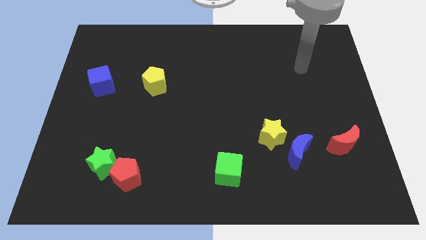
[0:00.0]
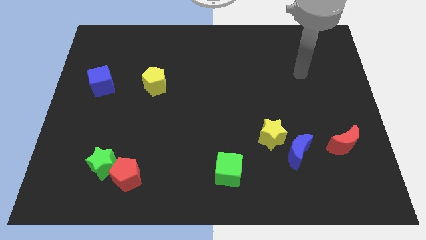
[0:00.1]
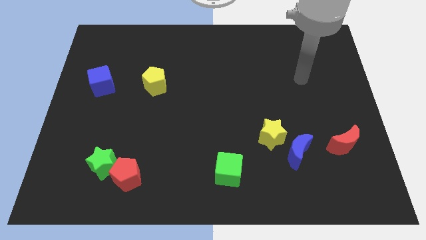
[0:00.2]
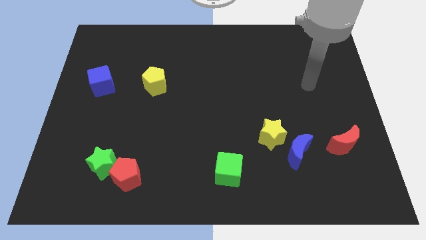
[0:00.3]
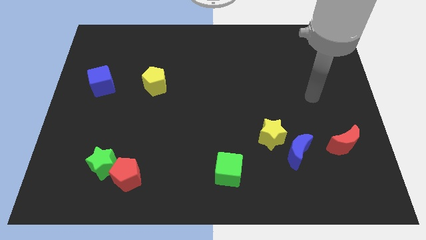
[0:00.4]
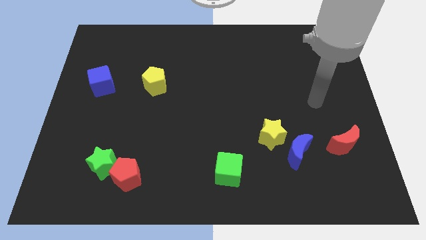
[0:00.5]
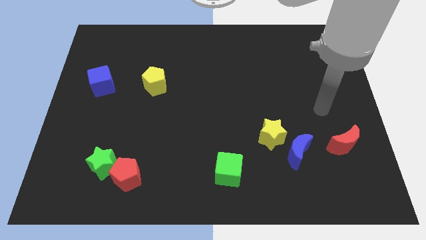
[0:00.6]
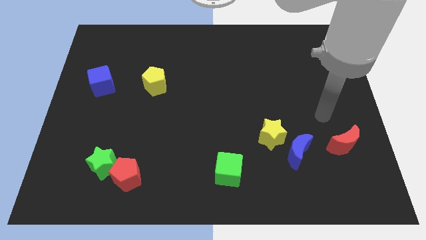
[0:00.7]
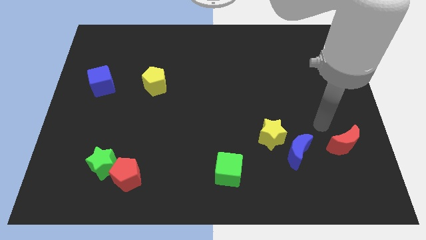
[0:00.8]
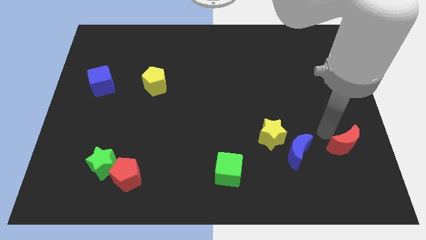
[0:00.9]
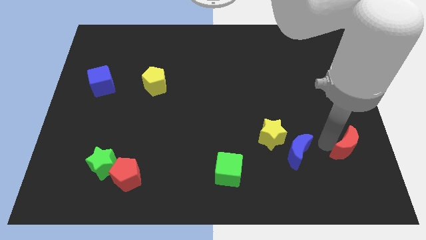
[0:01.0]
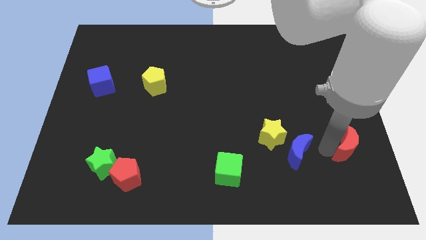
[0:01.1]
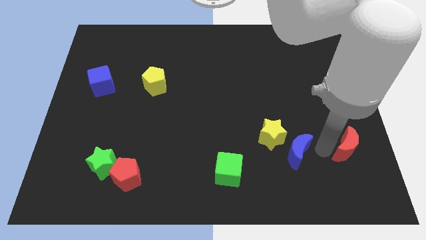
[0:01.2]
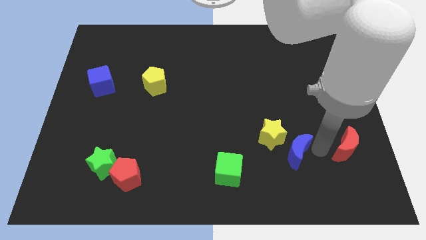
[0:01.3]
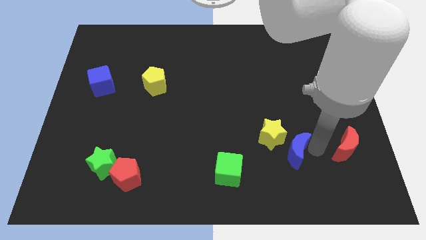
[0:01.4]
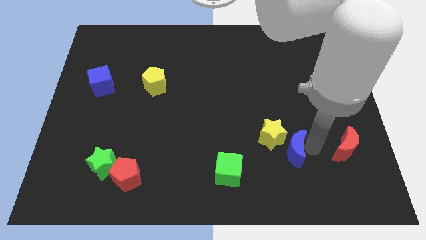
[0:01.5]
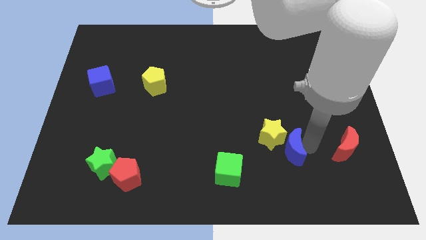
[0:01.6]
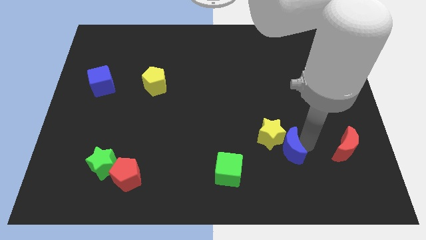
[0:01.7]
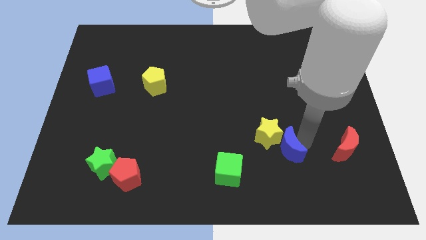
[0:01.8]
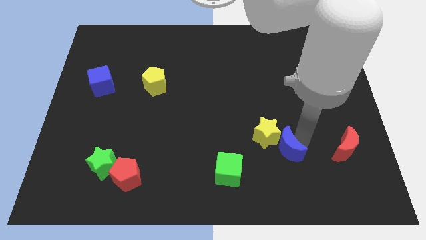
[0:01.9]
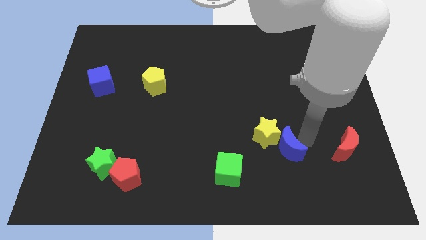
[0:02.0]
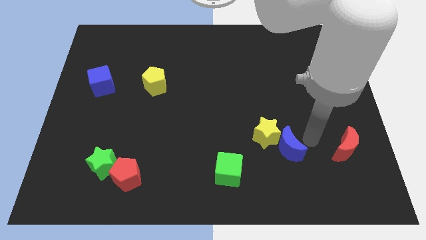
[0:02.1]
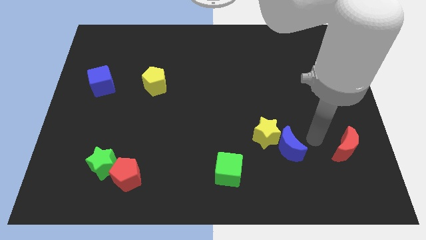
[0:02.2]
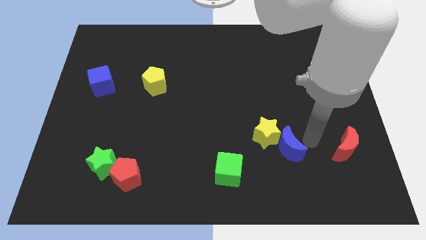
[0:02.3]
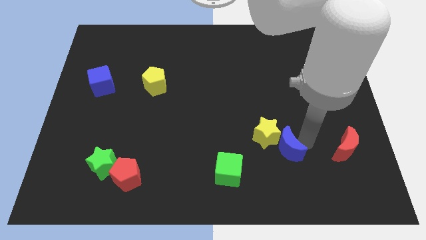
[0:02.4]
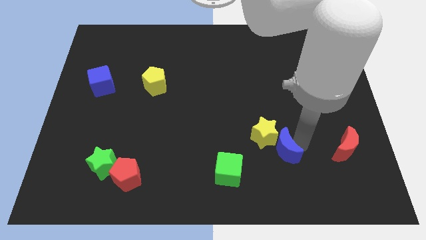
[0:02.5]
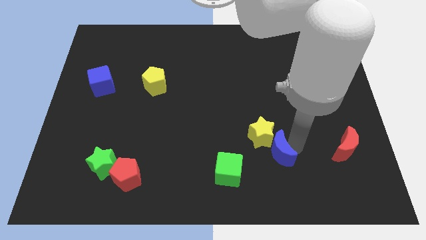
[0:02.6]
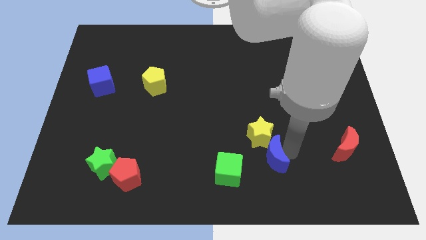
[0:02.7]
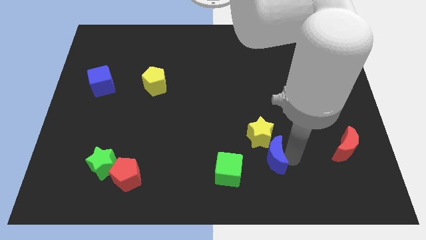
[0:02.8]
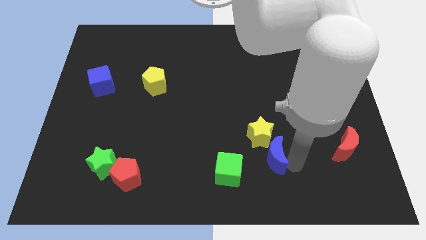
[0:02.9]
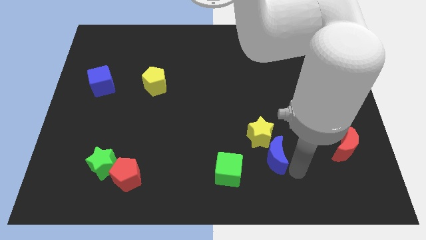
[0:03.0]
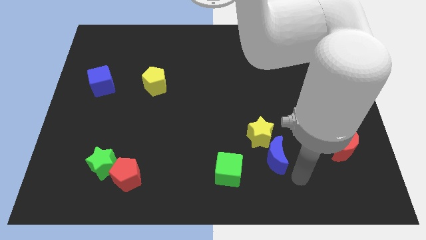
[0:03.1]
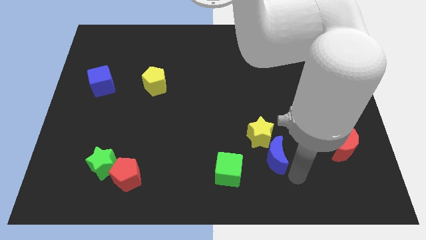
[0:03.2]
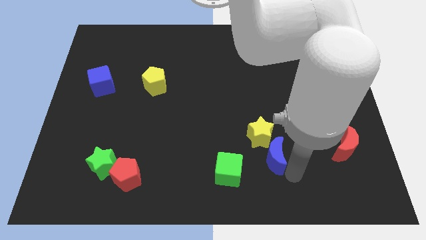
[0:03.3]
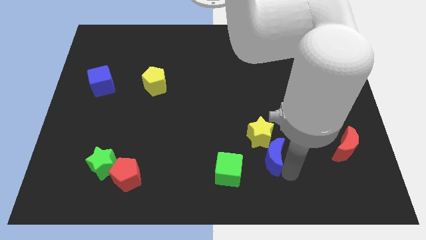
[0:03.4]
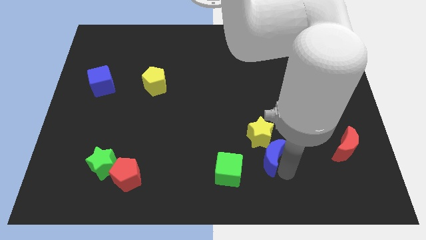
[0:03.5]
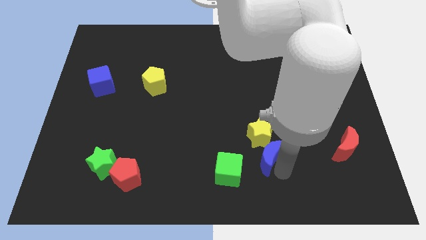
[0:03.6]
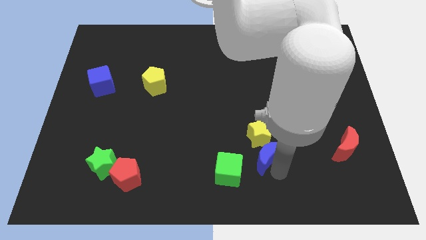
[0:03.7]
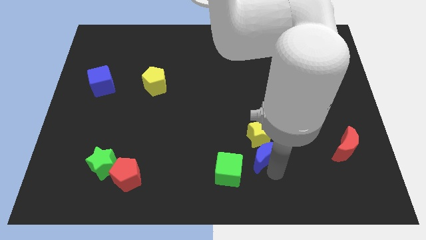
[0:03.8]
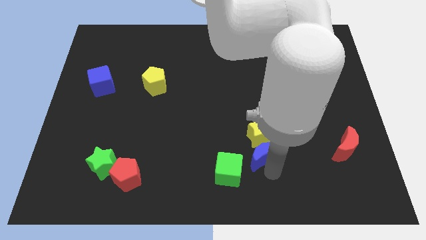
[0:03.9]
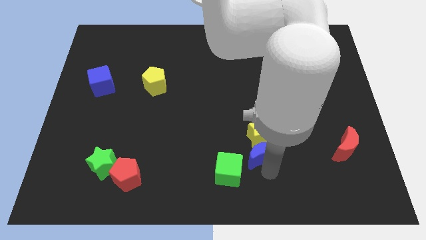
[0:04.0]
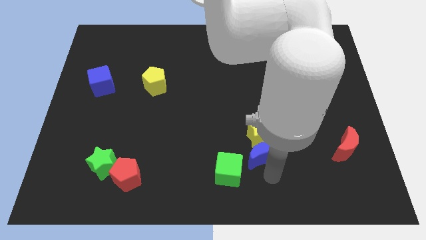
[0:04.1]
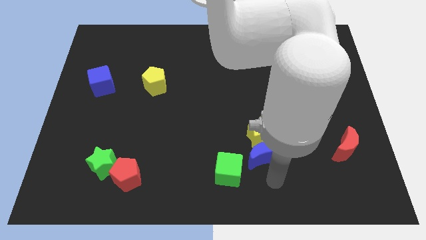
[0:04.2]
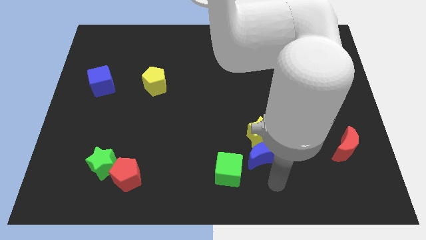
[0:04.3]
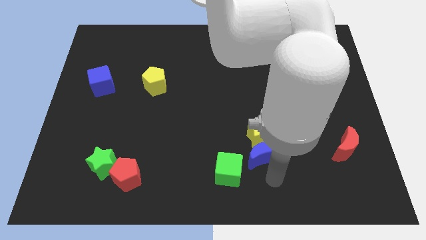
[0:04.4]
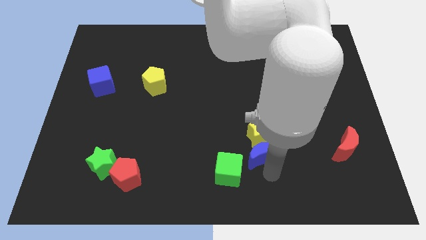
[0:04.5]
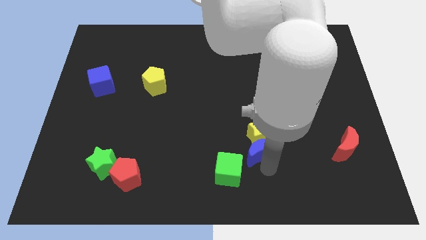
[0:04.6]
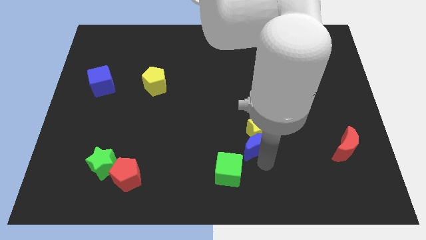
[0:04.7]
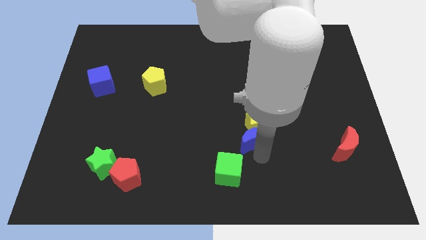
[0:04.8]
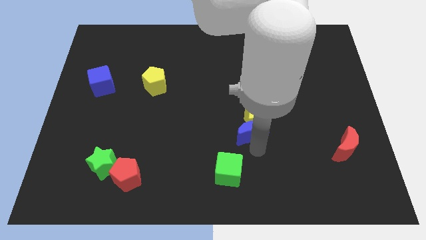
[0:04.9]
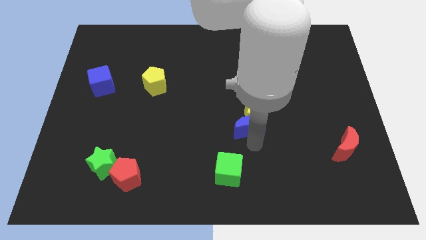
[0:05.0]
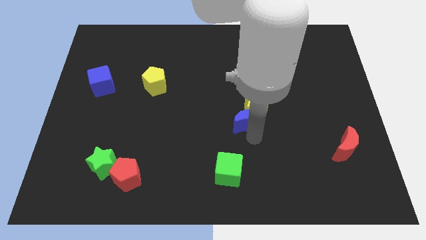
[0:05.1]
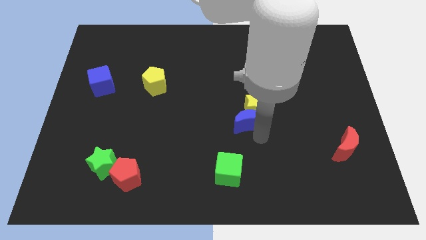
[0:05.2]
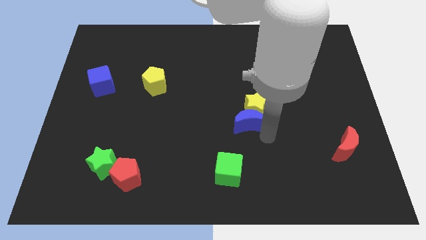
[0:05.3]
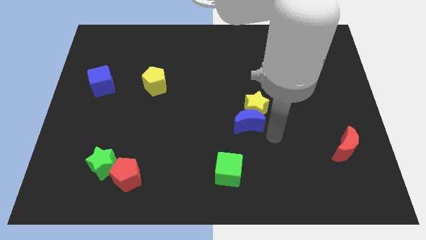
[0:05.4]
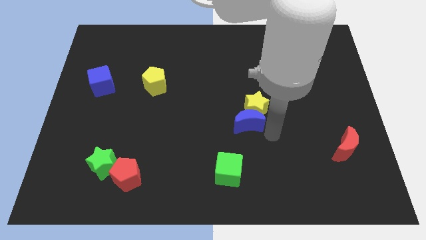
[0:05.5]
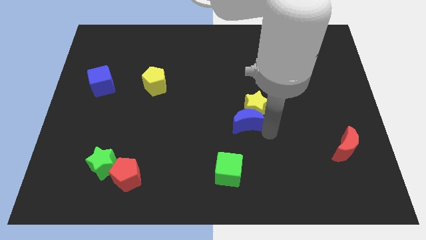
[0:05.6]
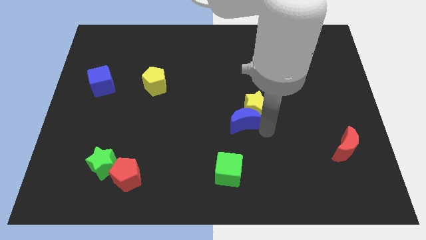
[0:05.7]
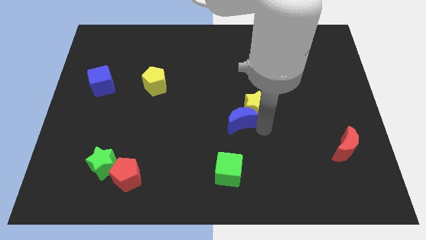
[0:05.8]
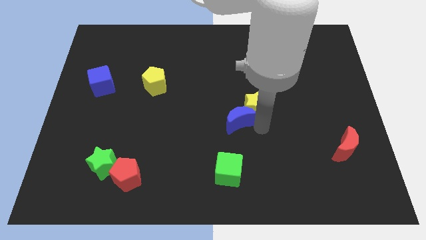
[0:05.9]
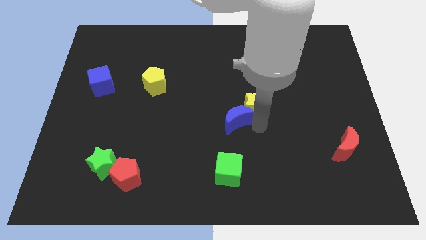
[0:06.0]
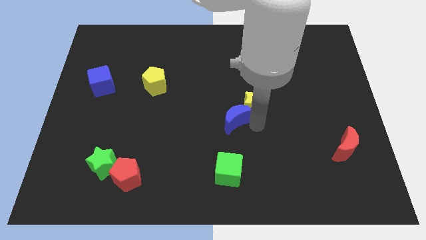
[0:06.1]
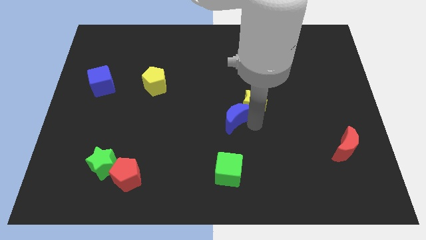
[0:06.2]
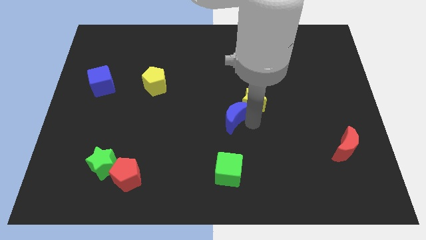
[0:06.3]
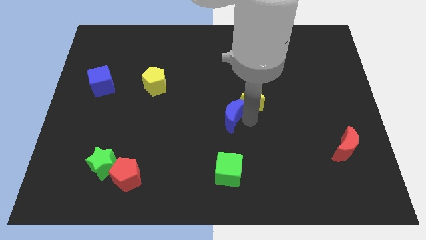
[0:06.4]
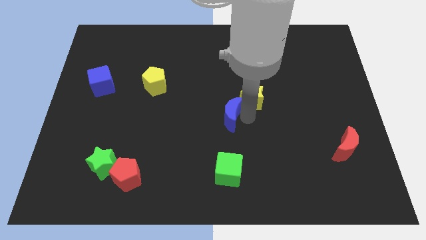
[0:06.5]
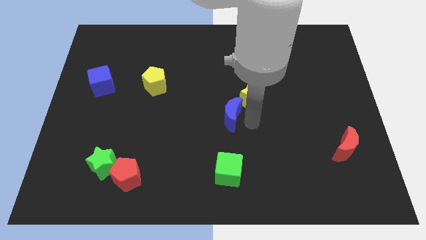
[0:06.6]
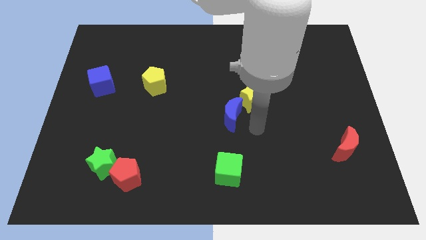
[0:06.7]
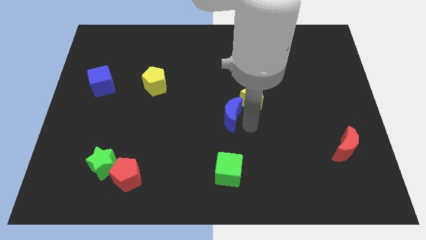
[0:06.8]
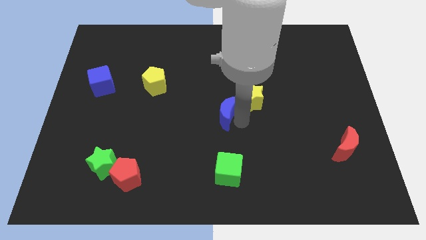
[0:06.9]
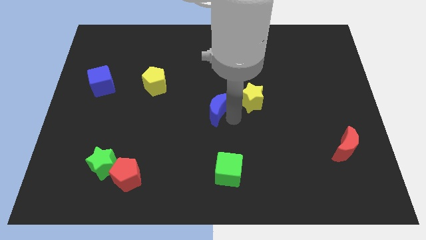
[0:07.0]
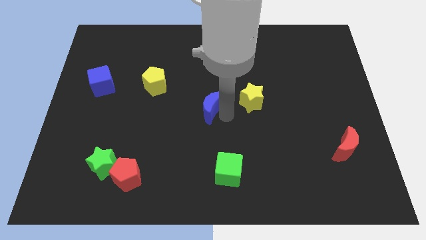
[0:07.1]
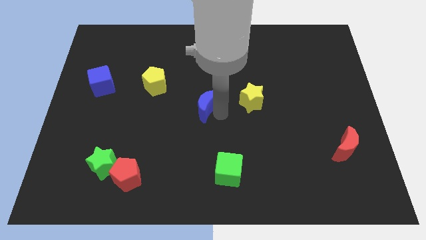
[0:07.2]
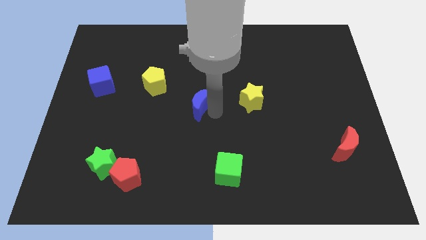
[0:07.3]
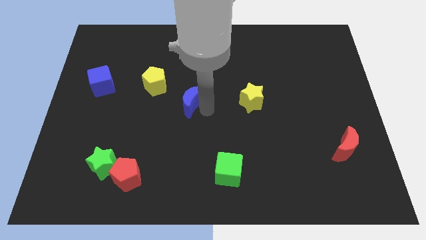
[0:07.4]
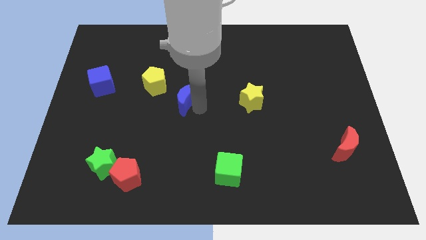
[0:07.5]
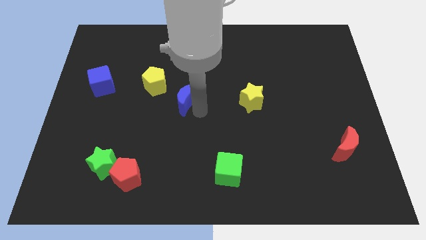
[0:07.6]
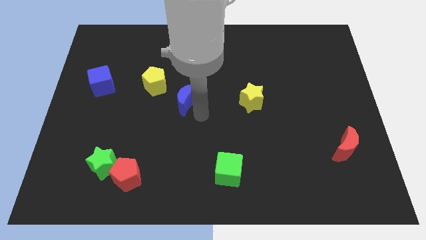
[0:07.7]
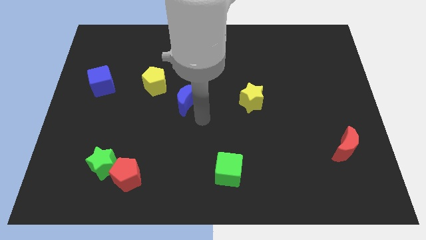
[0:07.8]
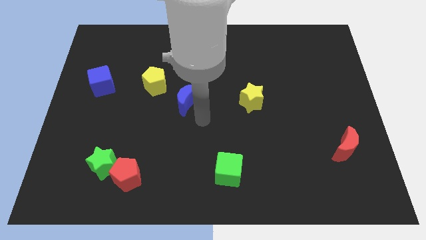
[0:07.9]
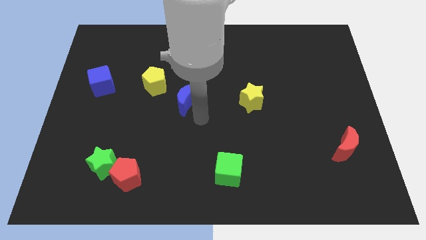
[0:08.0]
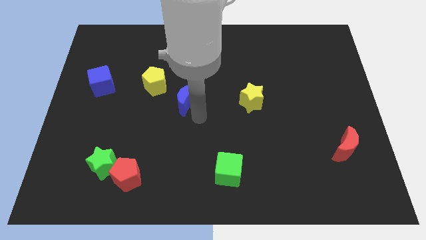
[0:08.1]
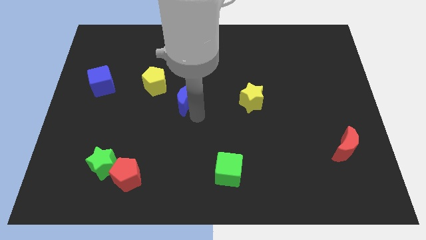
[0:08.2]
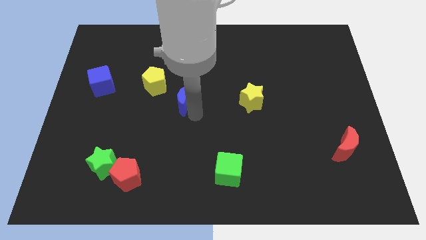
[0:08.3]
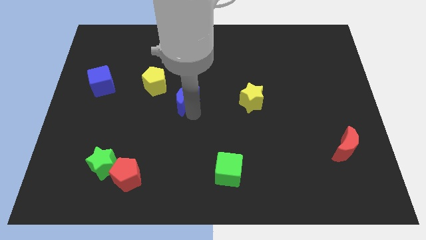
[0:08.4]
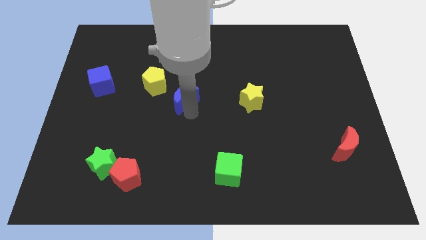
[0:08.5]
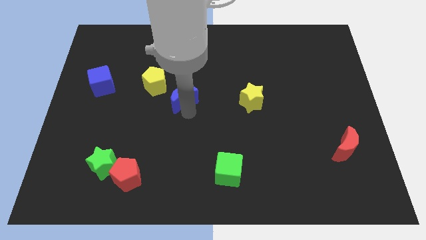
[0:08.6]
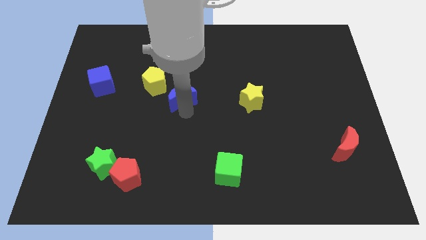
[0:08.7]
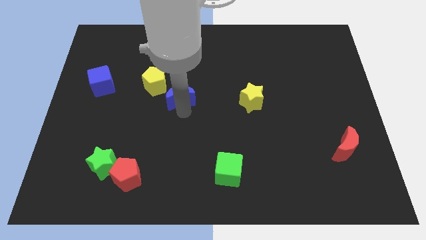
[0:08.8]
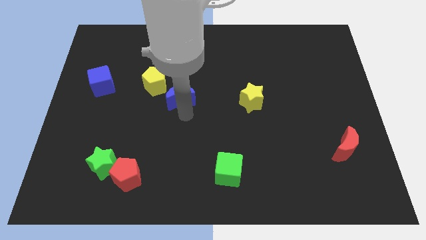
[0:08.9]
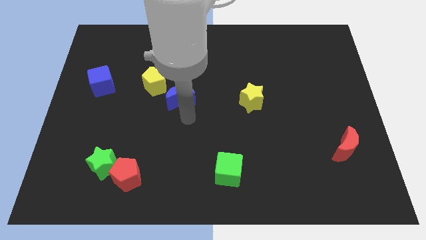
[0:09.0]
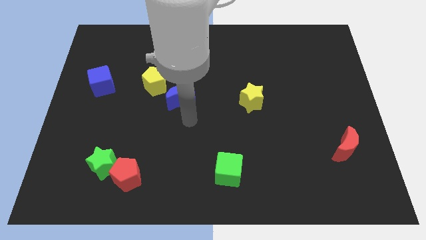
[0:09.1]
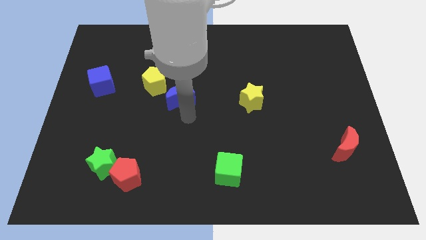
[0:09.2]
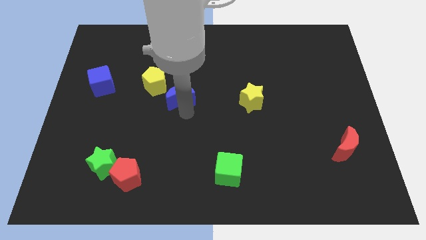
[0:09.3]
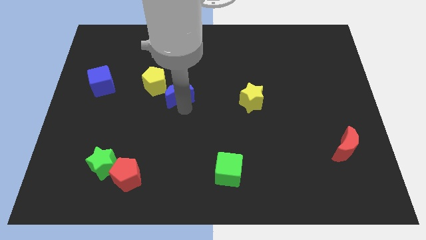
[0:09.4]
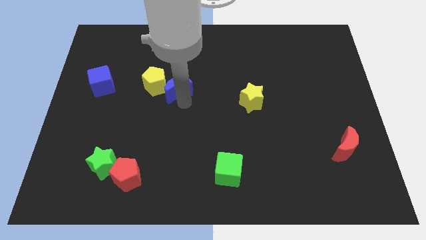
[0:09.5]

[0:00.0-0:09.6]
push the blue moon to the yellow pentagon
